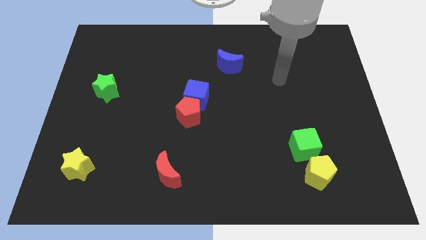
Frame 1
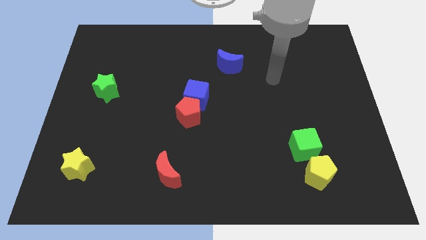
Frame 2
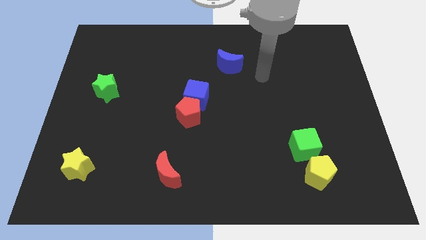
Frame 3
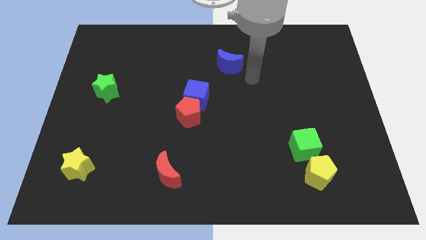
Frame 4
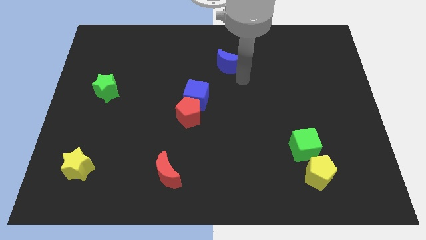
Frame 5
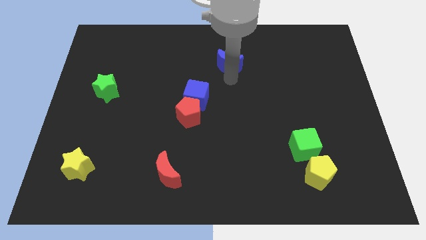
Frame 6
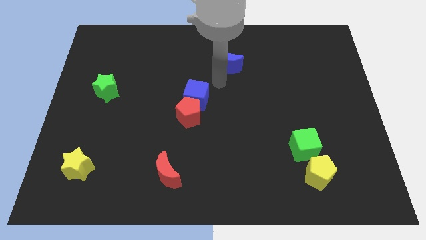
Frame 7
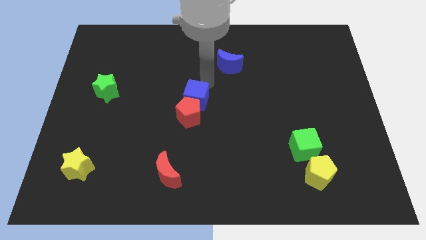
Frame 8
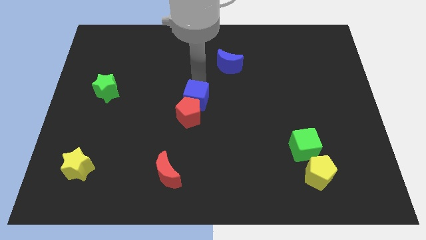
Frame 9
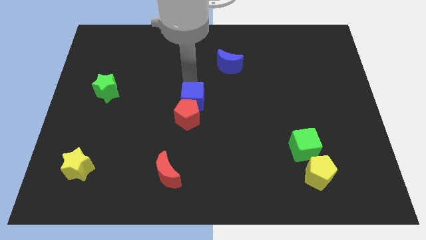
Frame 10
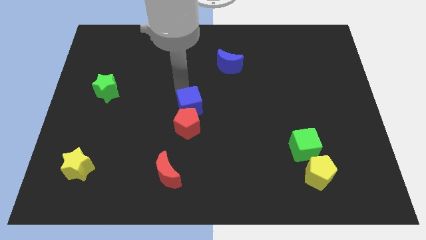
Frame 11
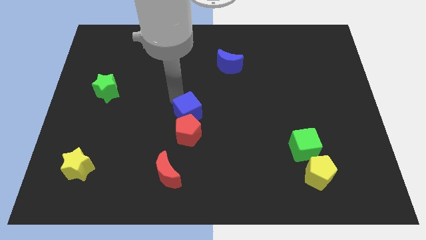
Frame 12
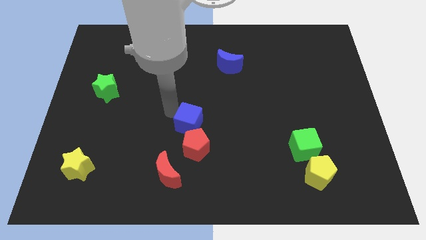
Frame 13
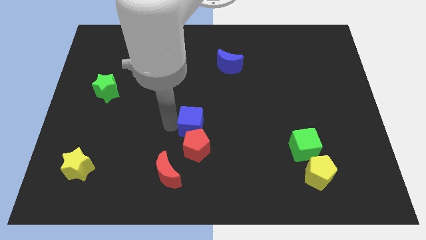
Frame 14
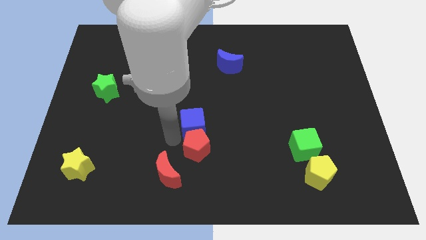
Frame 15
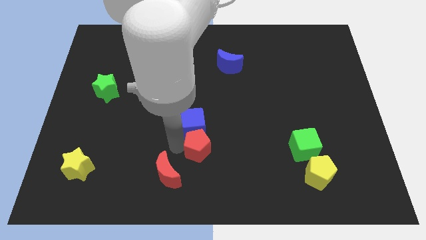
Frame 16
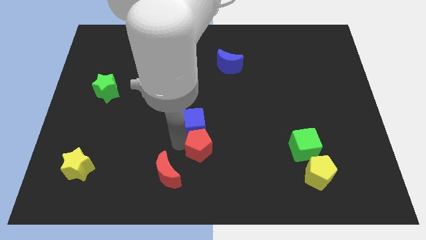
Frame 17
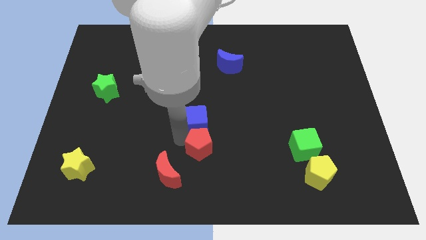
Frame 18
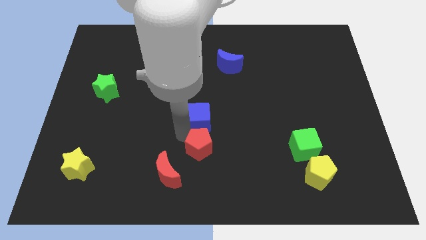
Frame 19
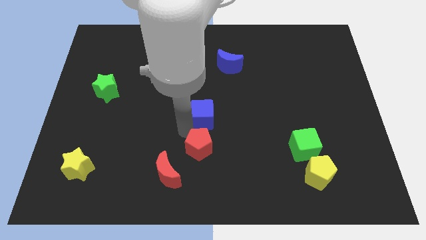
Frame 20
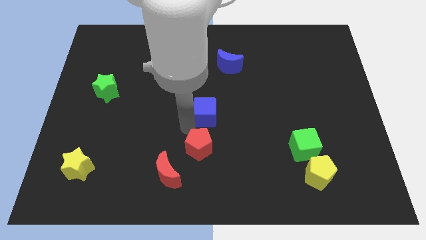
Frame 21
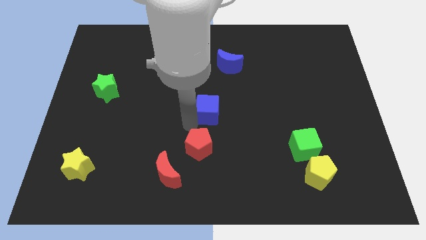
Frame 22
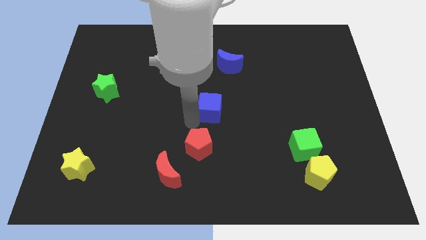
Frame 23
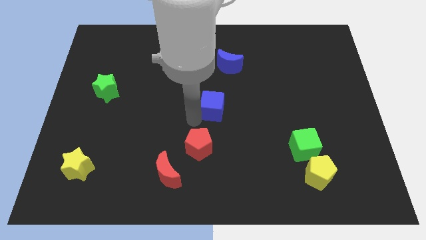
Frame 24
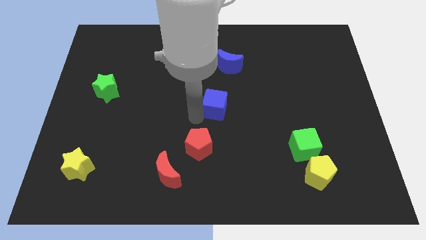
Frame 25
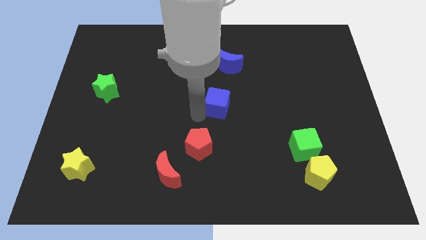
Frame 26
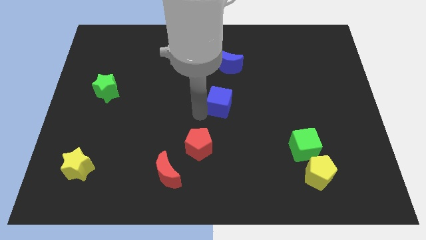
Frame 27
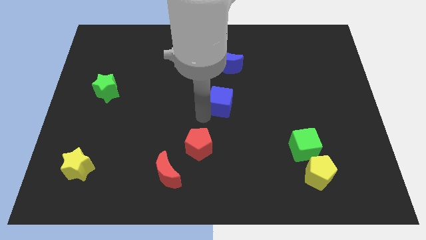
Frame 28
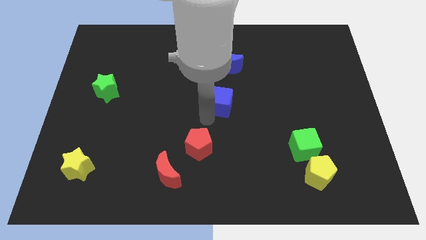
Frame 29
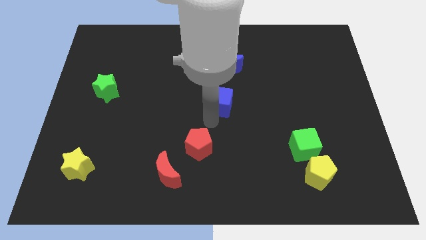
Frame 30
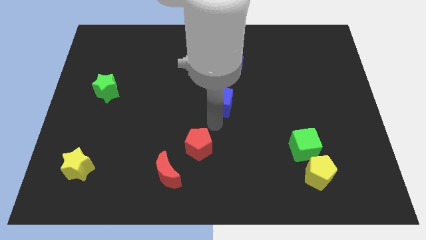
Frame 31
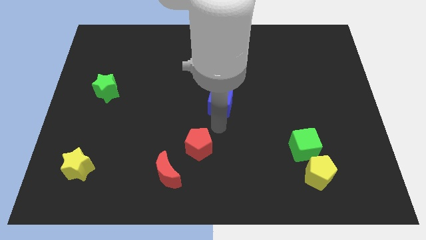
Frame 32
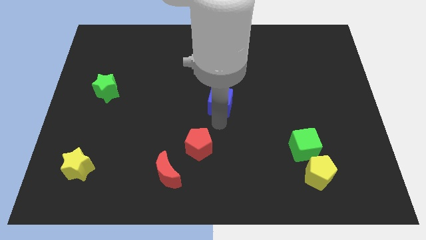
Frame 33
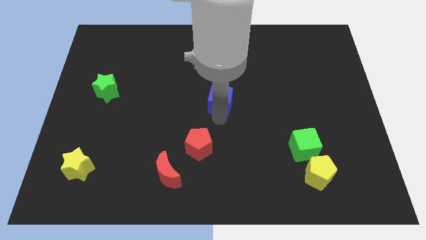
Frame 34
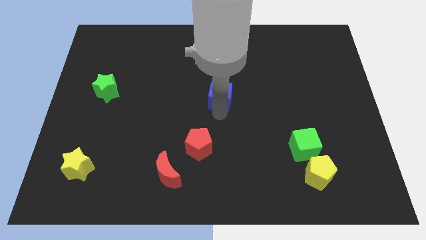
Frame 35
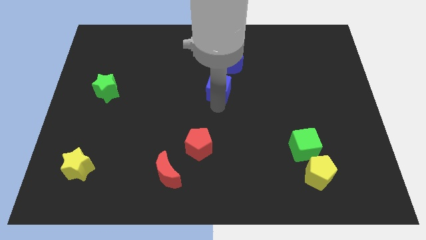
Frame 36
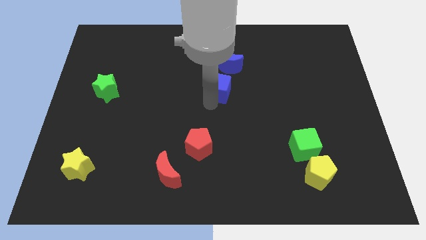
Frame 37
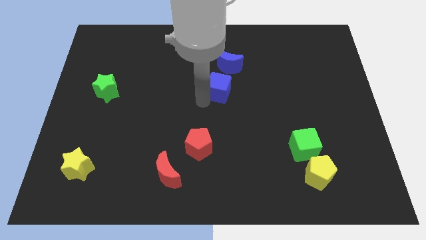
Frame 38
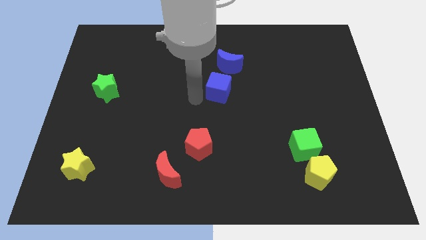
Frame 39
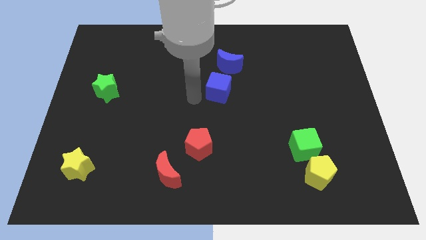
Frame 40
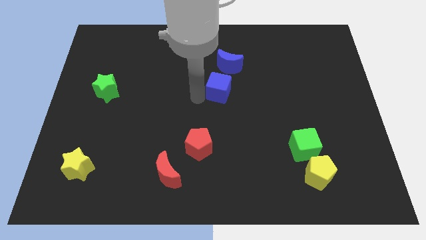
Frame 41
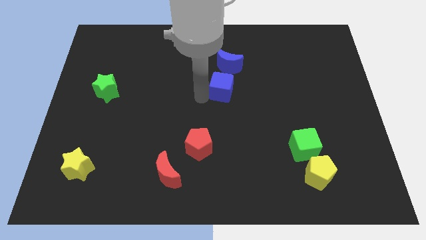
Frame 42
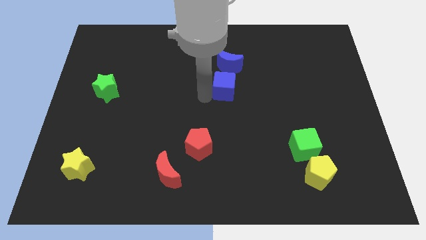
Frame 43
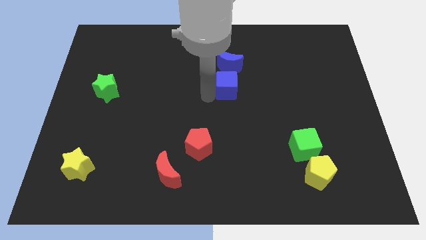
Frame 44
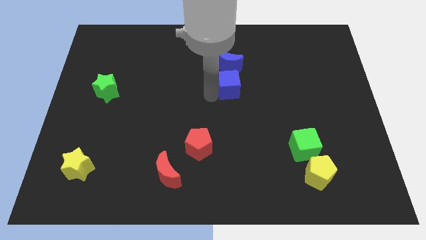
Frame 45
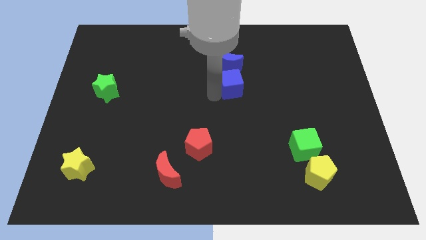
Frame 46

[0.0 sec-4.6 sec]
move the blue cube diagonally down and to the right of the blue moon

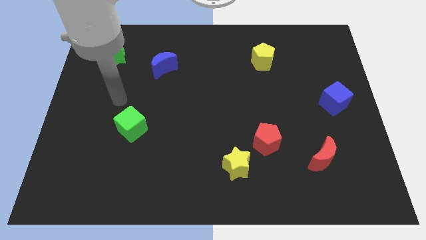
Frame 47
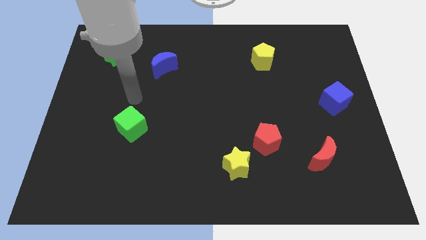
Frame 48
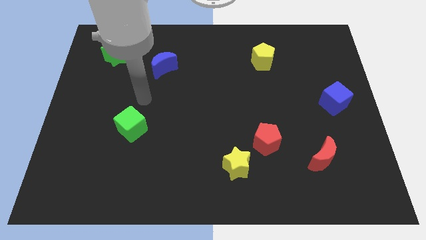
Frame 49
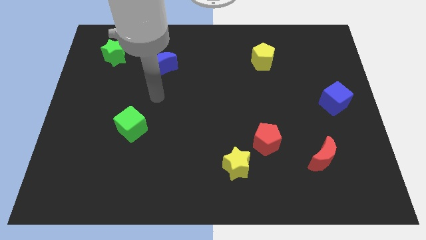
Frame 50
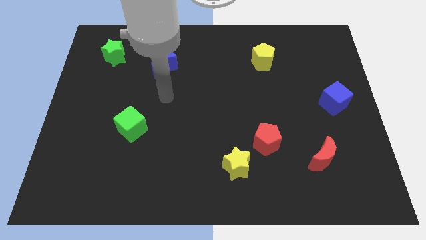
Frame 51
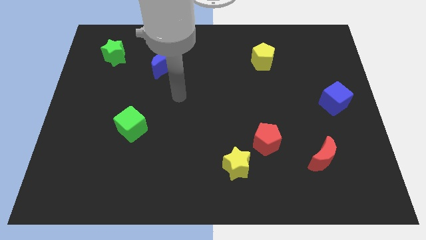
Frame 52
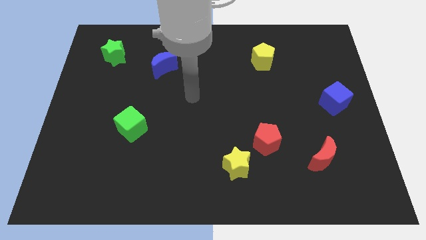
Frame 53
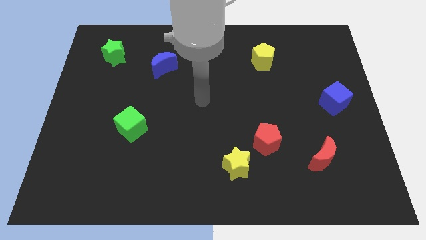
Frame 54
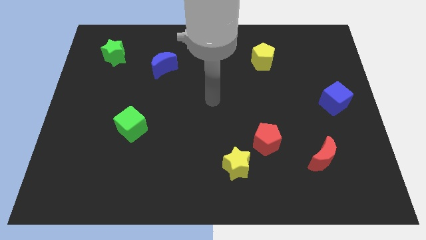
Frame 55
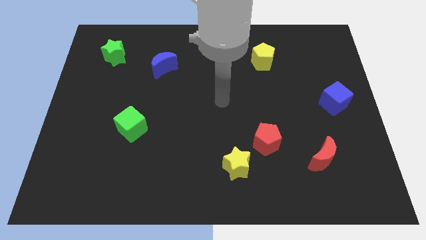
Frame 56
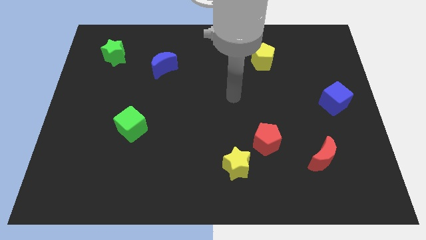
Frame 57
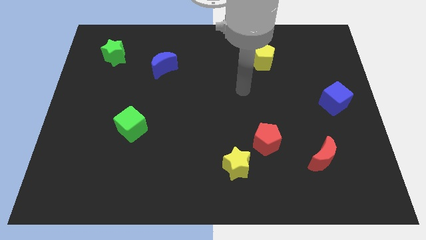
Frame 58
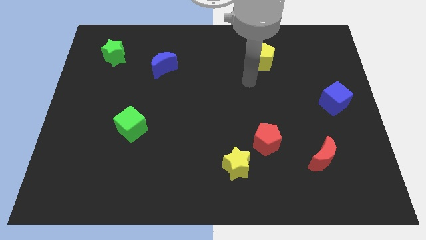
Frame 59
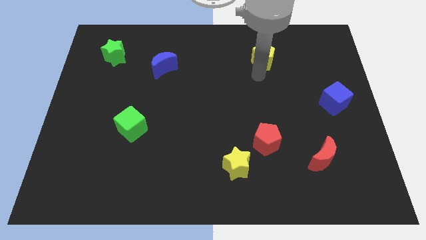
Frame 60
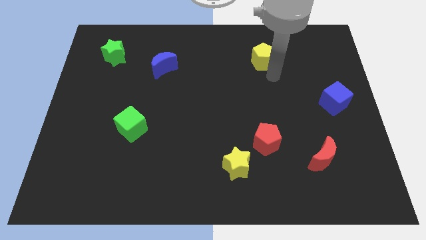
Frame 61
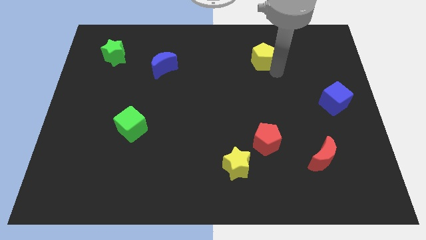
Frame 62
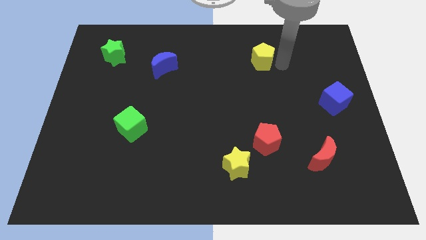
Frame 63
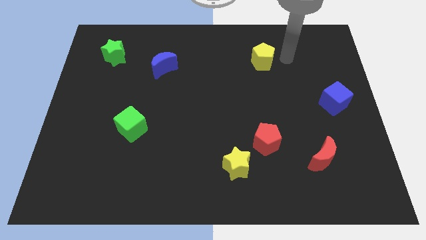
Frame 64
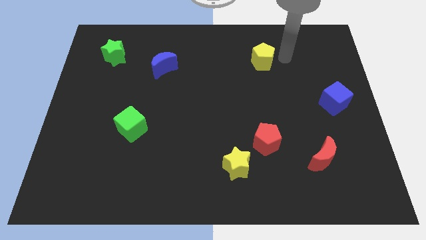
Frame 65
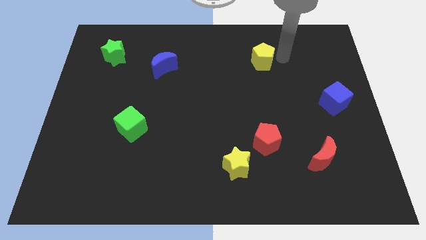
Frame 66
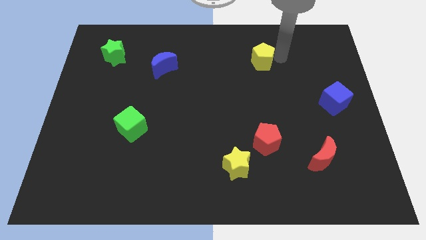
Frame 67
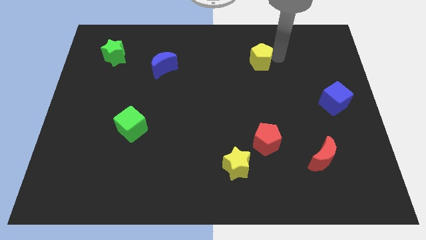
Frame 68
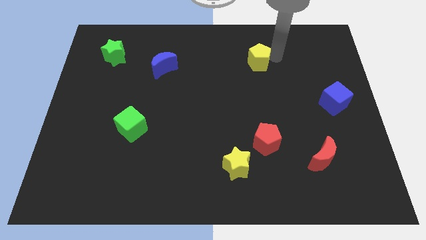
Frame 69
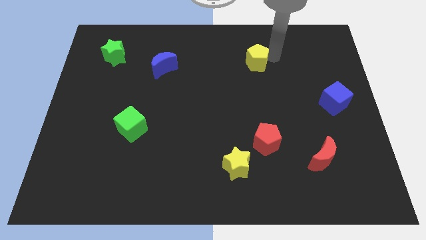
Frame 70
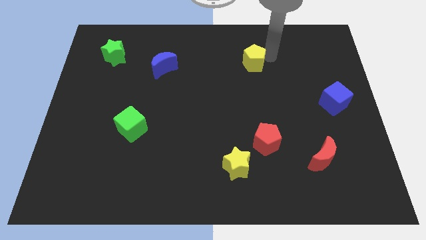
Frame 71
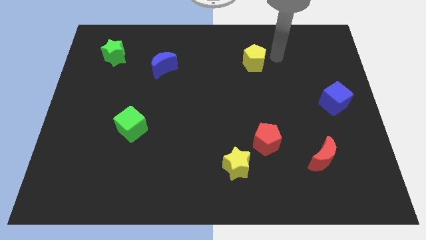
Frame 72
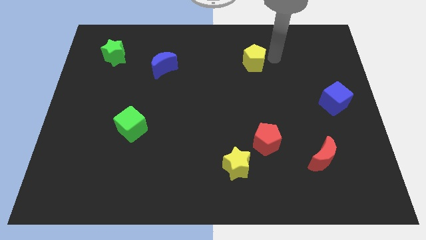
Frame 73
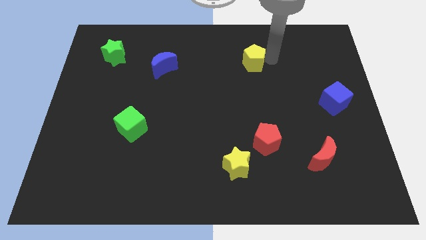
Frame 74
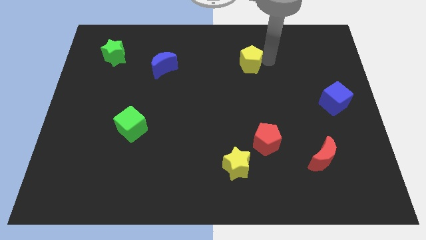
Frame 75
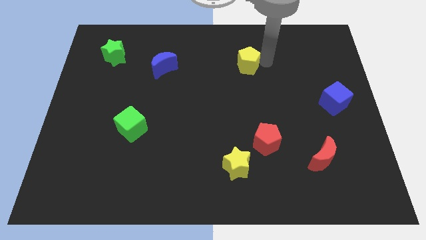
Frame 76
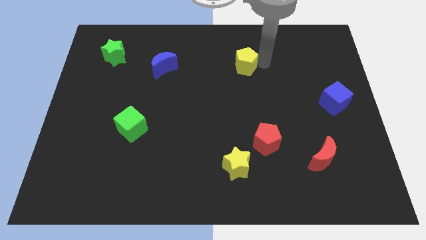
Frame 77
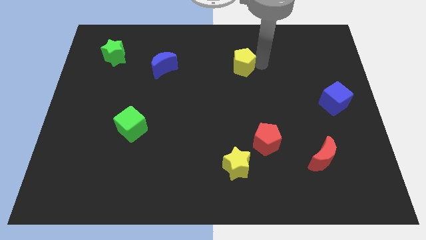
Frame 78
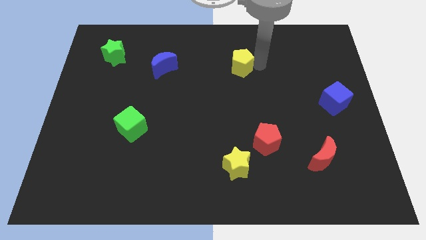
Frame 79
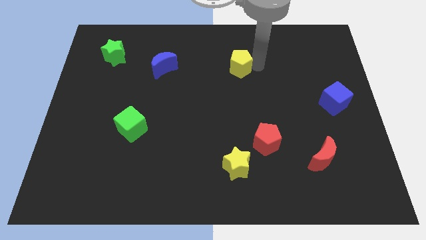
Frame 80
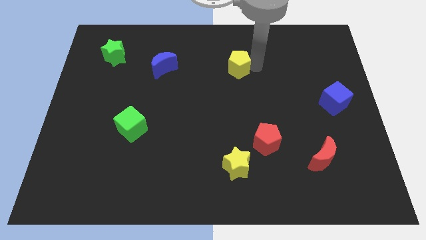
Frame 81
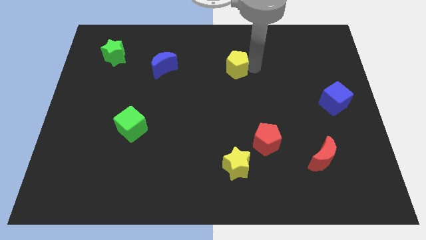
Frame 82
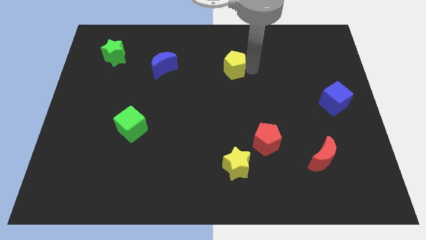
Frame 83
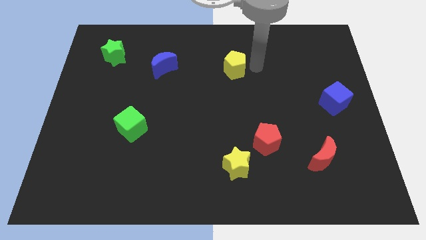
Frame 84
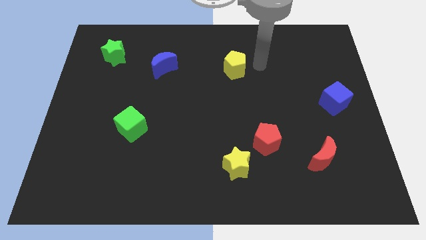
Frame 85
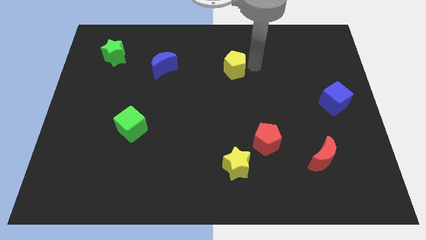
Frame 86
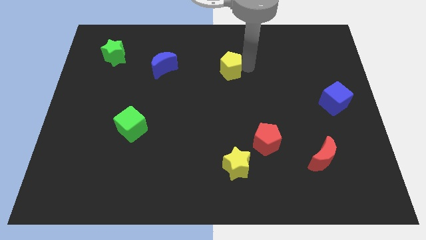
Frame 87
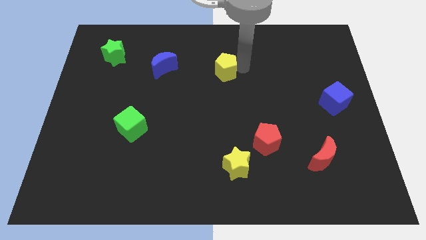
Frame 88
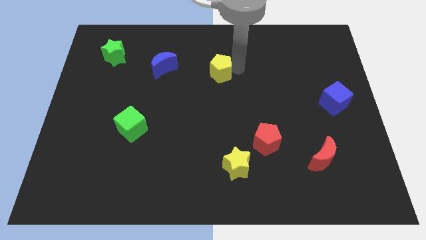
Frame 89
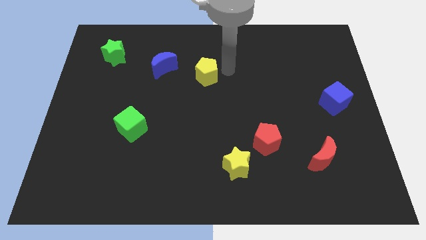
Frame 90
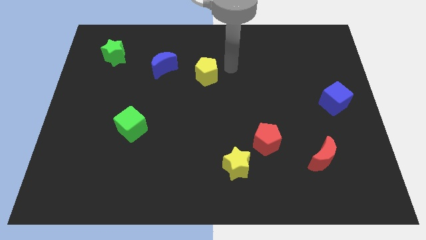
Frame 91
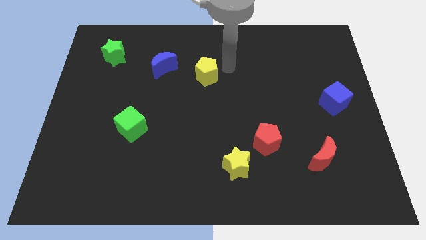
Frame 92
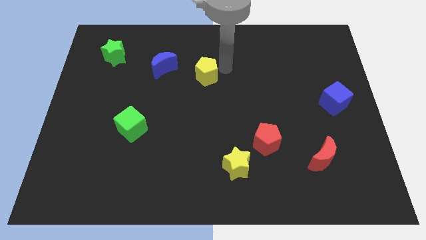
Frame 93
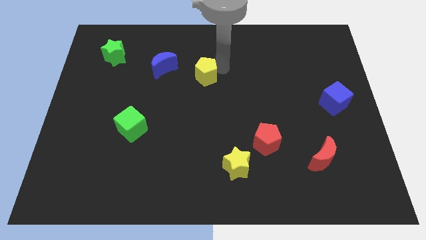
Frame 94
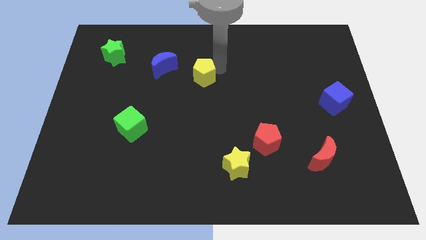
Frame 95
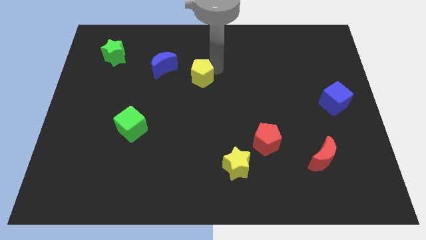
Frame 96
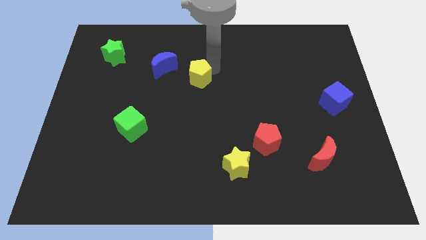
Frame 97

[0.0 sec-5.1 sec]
put the yellow pentagon to the bottom right of the blue moon
